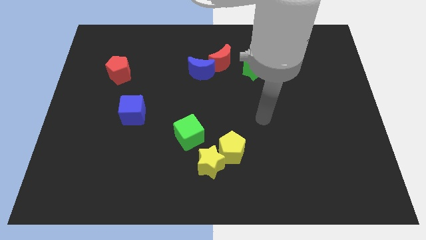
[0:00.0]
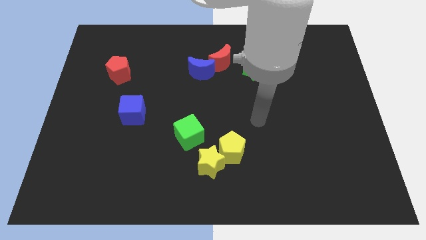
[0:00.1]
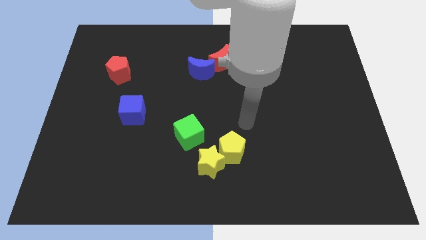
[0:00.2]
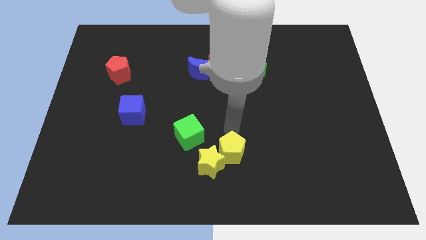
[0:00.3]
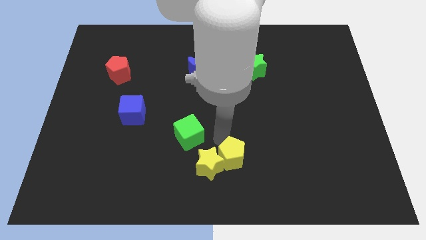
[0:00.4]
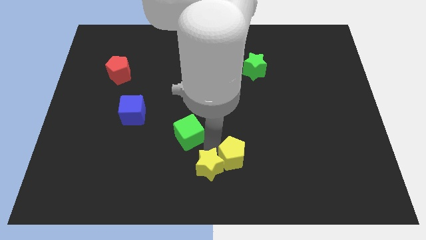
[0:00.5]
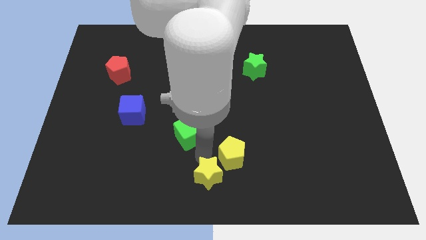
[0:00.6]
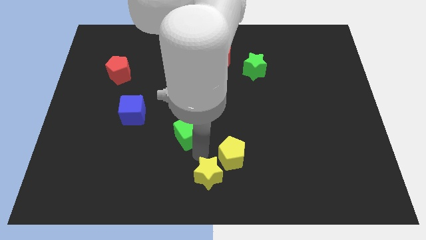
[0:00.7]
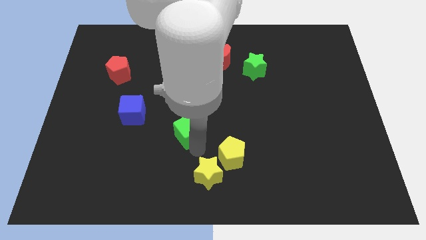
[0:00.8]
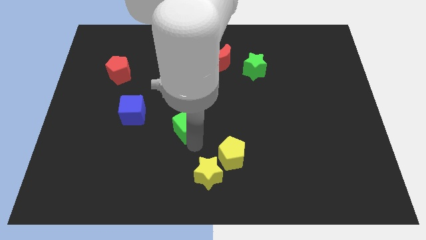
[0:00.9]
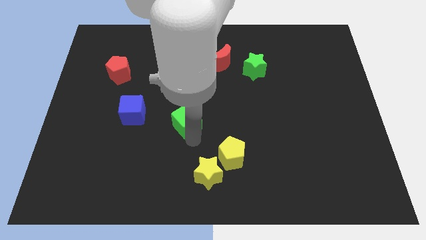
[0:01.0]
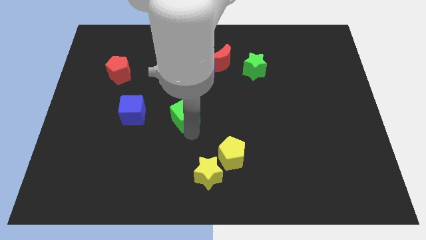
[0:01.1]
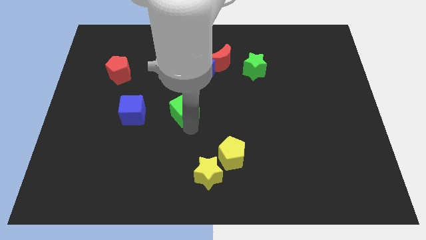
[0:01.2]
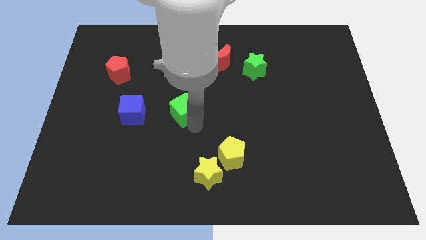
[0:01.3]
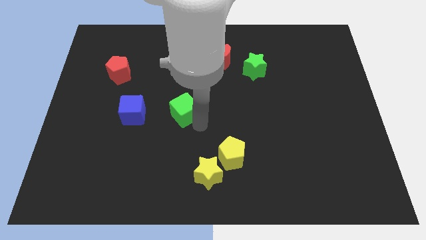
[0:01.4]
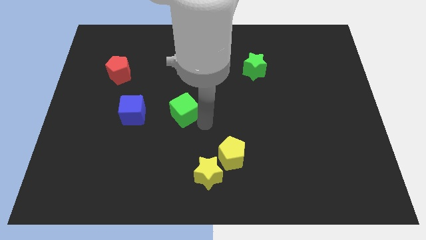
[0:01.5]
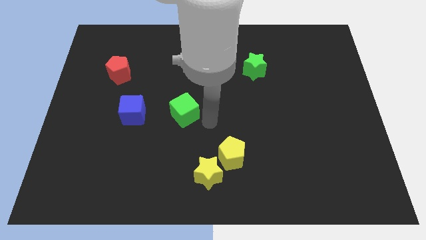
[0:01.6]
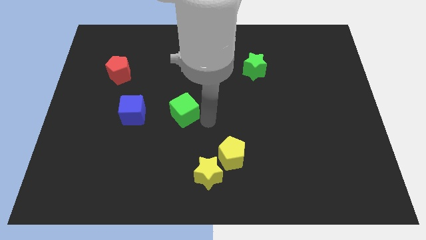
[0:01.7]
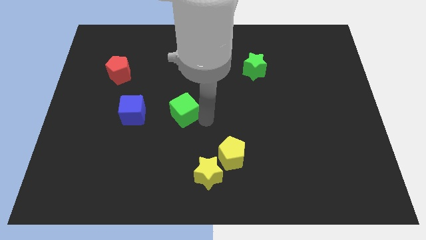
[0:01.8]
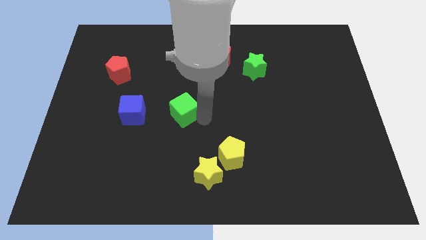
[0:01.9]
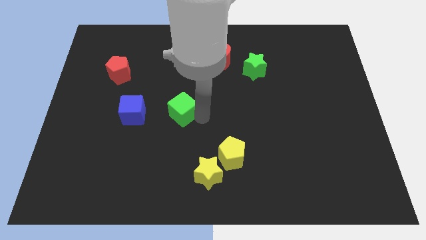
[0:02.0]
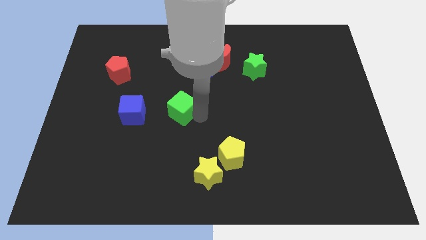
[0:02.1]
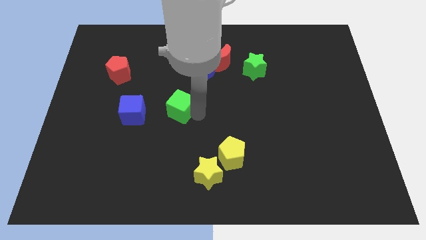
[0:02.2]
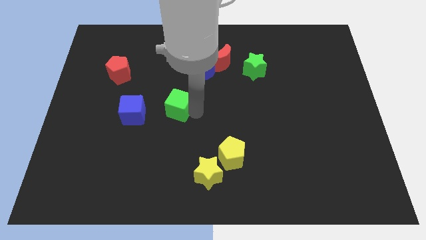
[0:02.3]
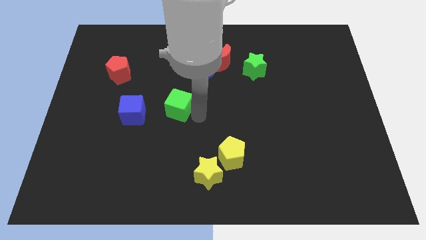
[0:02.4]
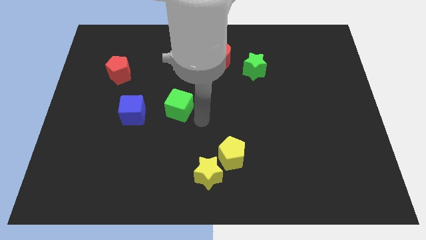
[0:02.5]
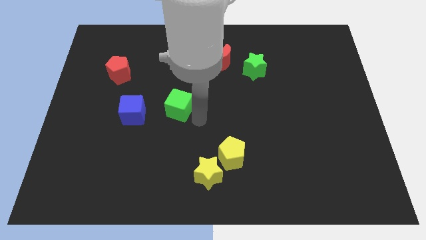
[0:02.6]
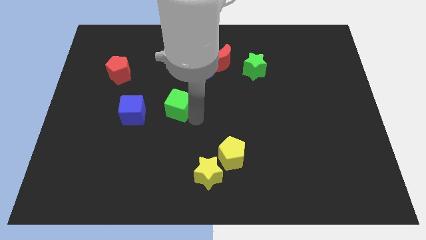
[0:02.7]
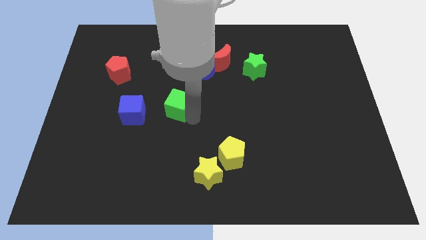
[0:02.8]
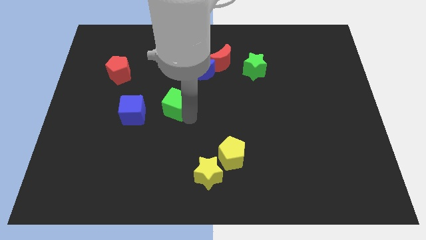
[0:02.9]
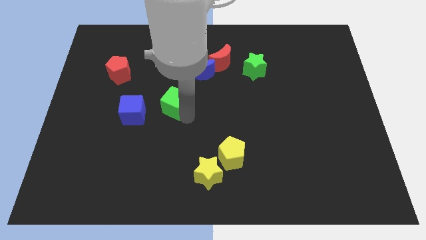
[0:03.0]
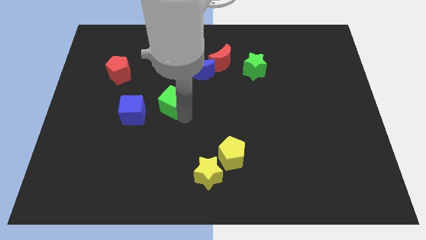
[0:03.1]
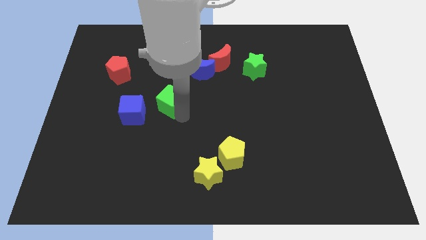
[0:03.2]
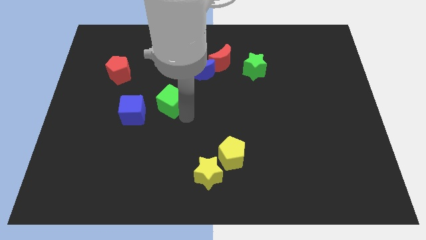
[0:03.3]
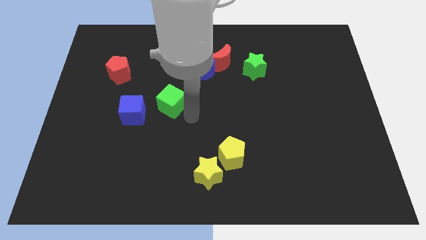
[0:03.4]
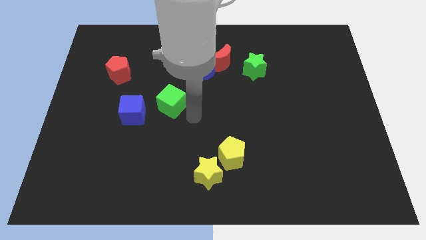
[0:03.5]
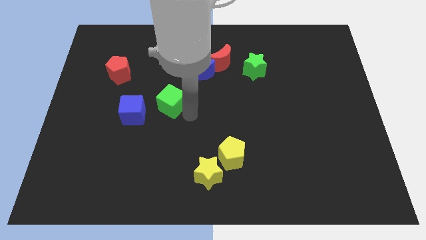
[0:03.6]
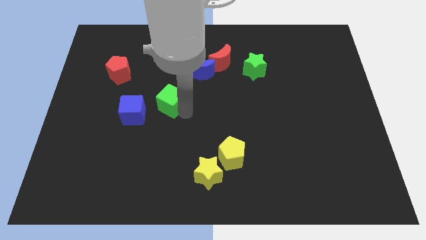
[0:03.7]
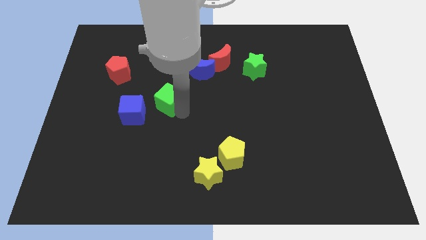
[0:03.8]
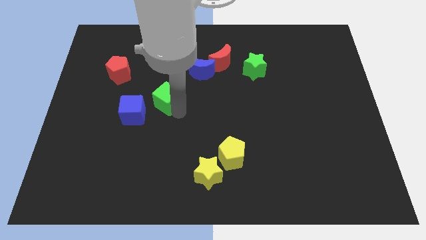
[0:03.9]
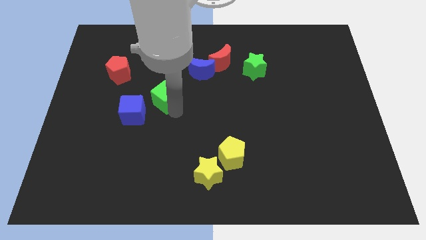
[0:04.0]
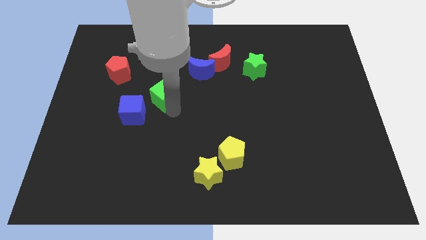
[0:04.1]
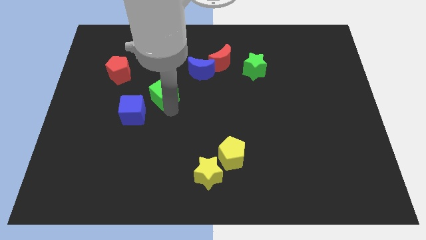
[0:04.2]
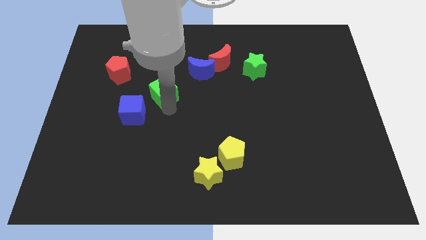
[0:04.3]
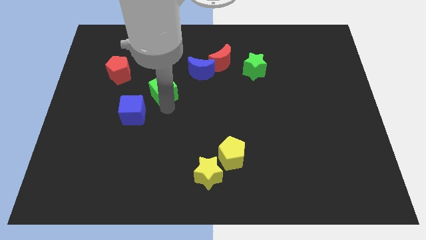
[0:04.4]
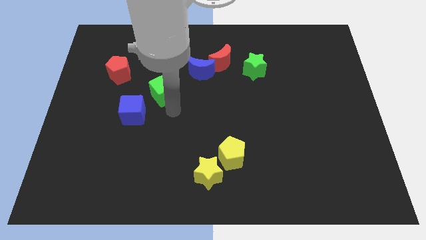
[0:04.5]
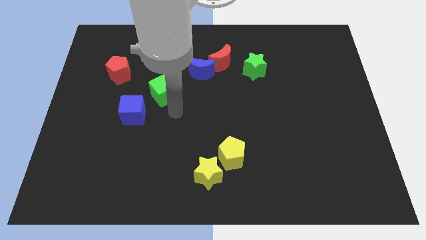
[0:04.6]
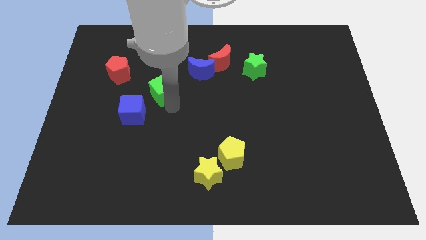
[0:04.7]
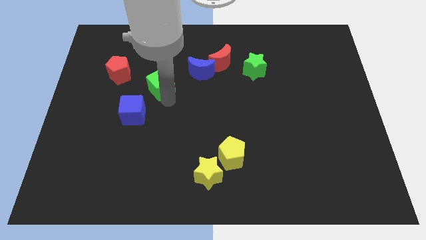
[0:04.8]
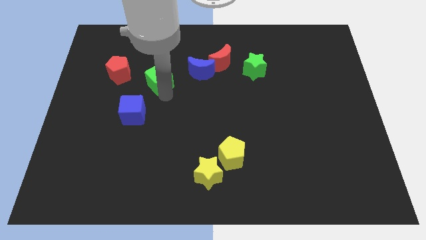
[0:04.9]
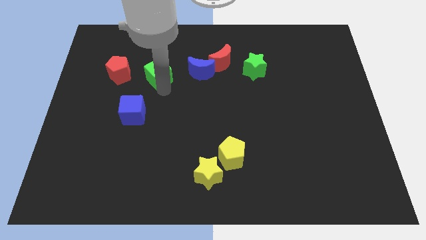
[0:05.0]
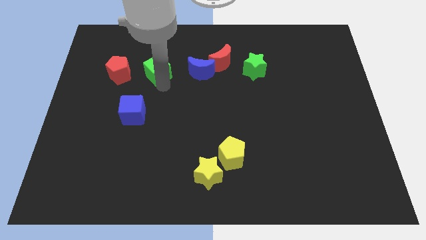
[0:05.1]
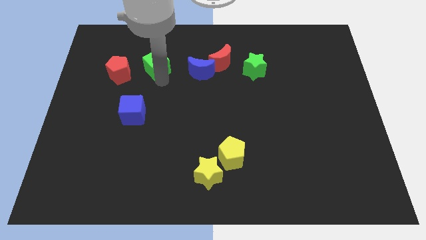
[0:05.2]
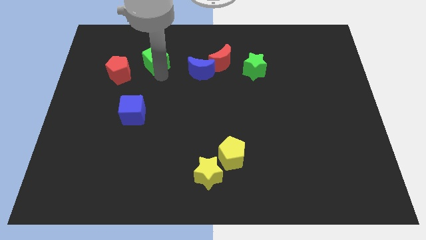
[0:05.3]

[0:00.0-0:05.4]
slide the green cube diagonally up and to the right of the red pentagon

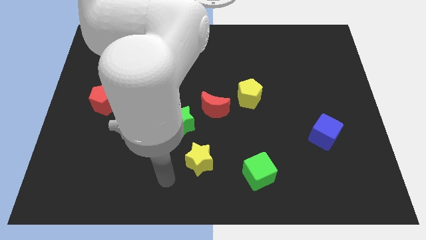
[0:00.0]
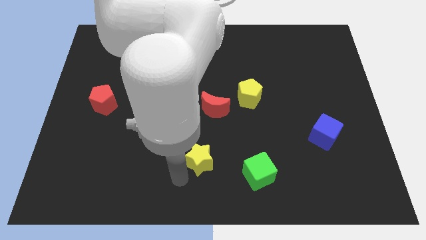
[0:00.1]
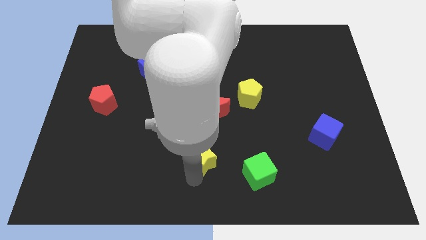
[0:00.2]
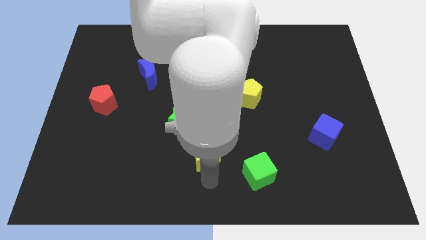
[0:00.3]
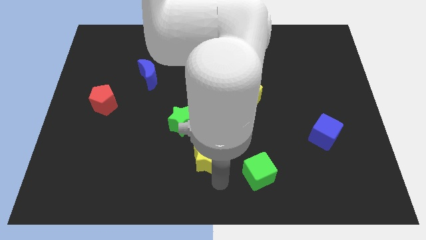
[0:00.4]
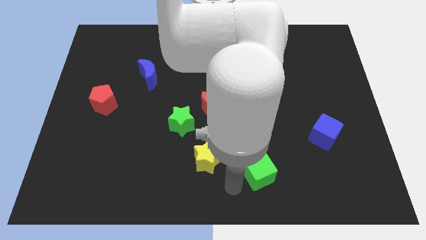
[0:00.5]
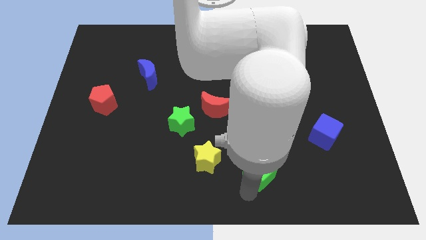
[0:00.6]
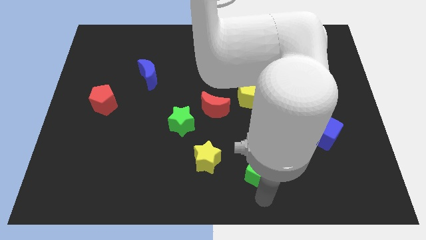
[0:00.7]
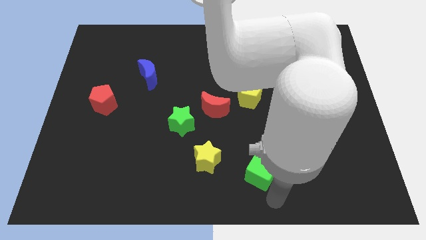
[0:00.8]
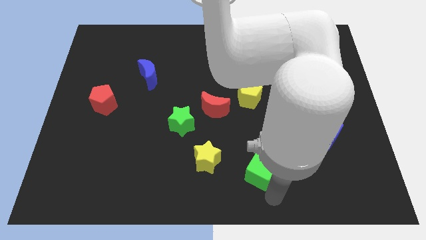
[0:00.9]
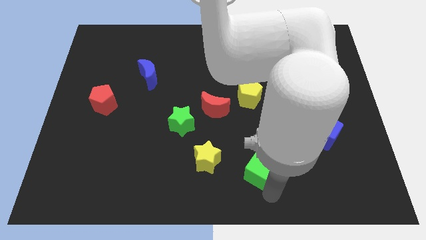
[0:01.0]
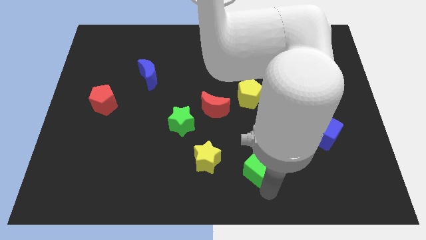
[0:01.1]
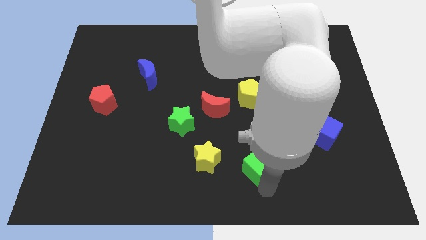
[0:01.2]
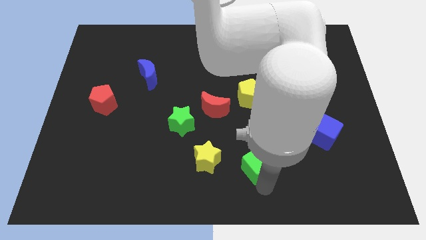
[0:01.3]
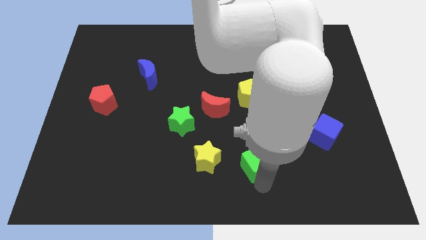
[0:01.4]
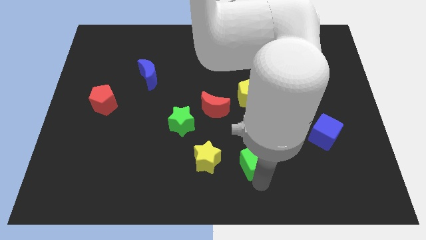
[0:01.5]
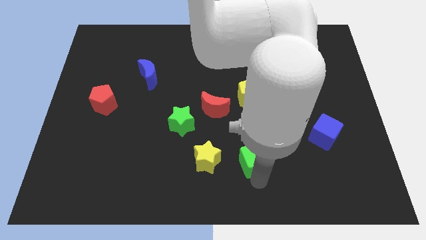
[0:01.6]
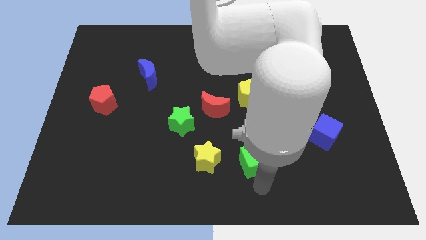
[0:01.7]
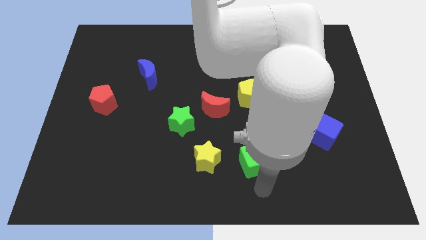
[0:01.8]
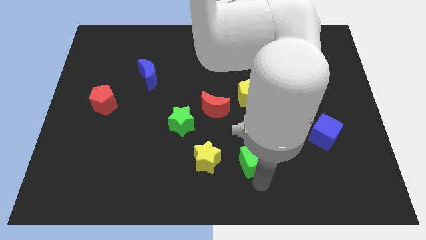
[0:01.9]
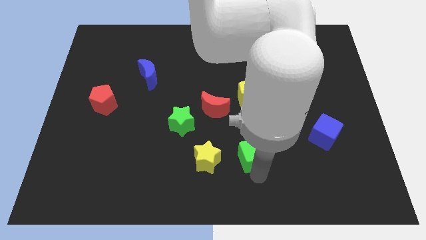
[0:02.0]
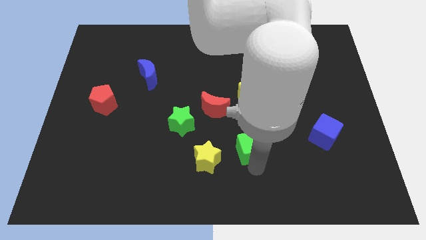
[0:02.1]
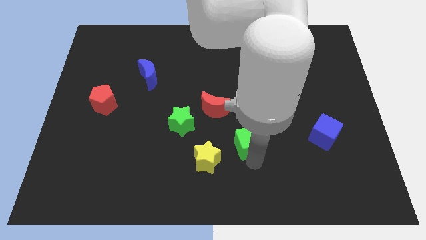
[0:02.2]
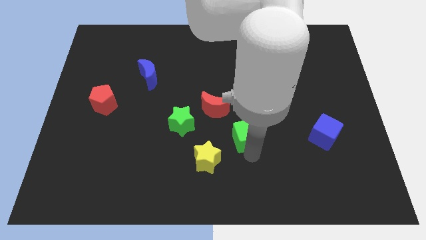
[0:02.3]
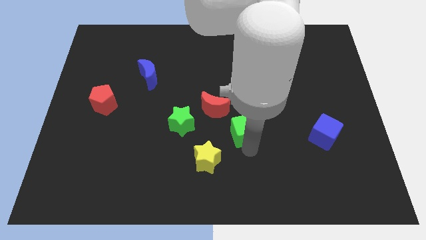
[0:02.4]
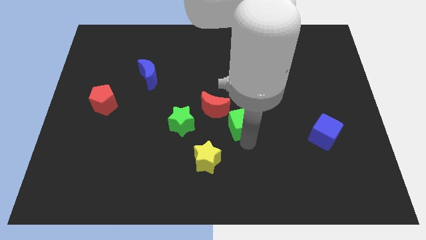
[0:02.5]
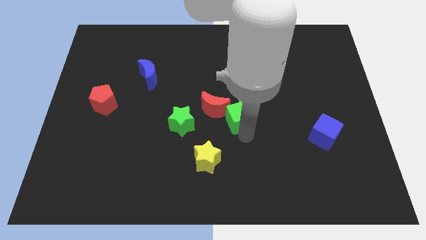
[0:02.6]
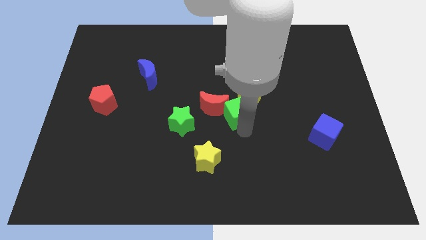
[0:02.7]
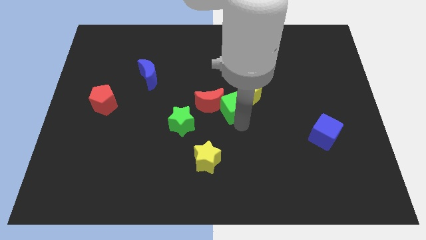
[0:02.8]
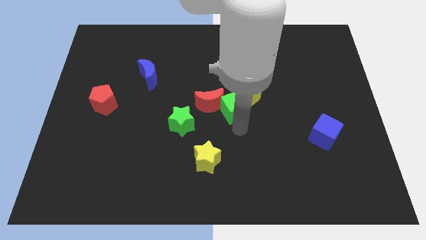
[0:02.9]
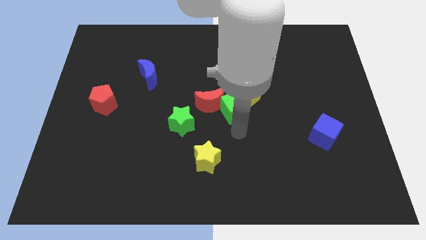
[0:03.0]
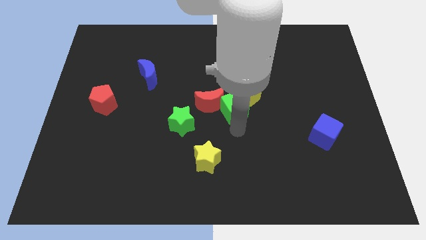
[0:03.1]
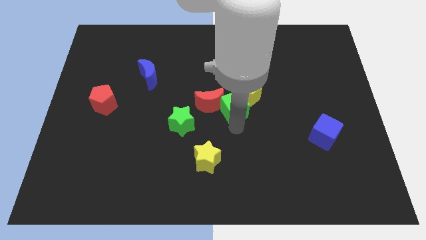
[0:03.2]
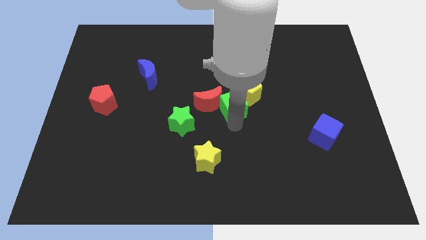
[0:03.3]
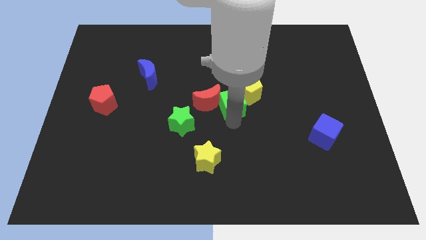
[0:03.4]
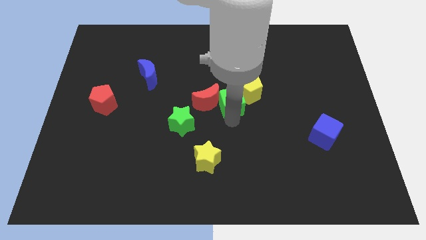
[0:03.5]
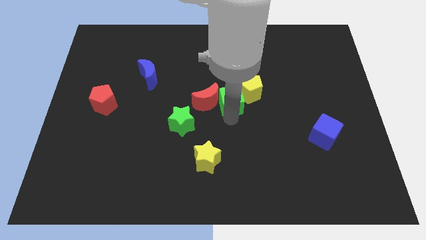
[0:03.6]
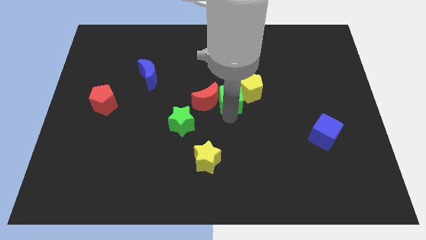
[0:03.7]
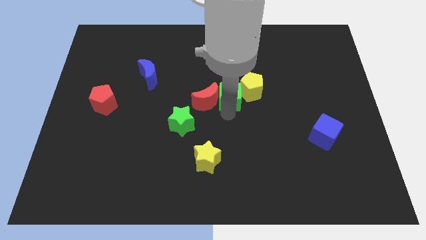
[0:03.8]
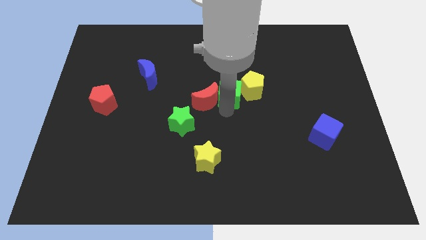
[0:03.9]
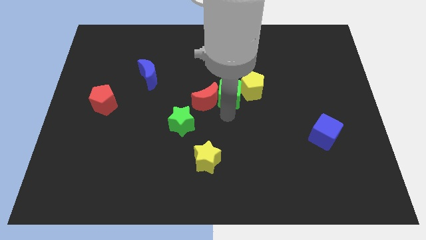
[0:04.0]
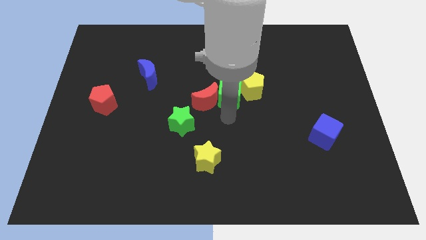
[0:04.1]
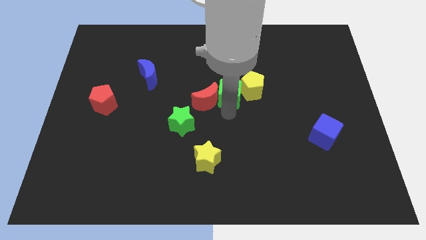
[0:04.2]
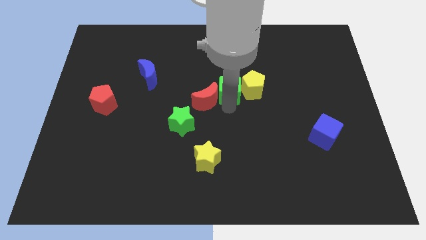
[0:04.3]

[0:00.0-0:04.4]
push the green cube to the top left of the yellow pentagon
